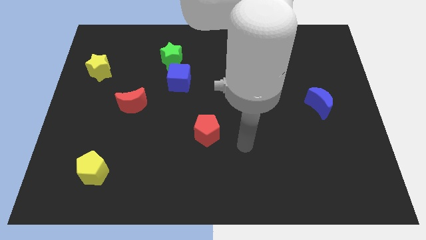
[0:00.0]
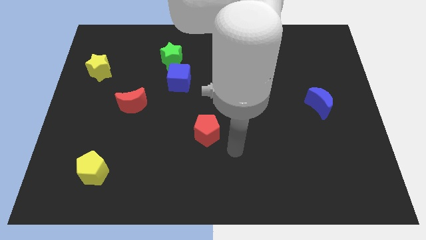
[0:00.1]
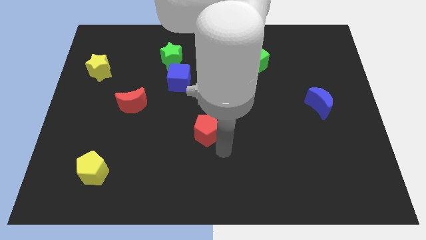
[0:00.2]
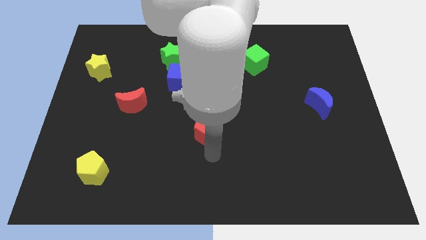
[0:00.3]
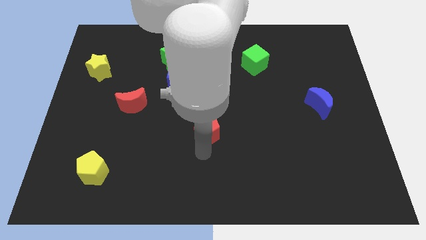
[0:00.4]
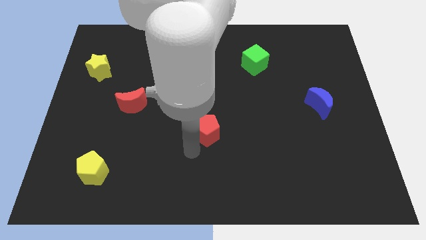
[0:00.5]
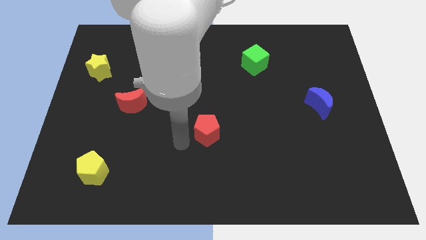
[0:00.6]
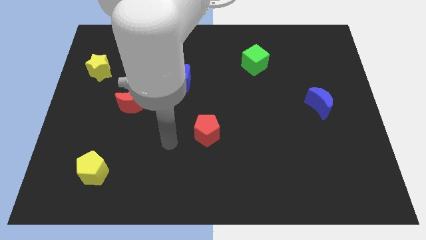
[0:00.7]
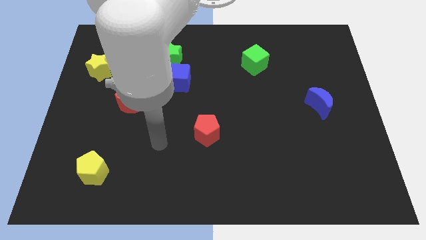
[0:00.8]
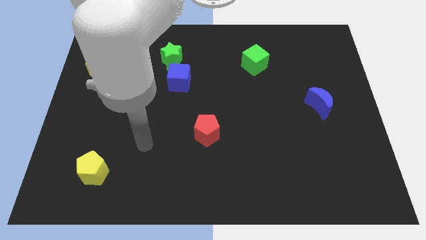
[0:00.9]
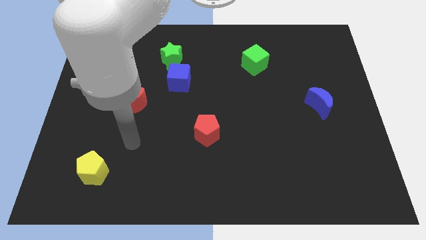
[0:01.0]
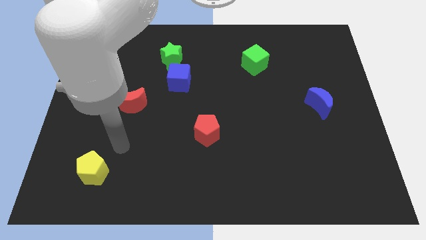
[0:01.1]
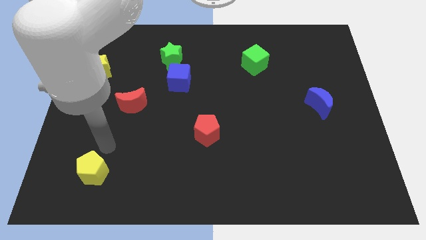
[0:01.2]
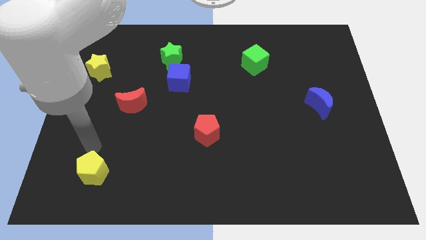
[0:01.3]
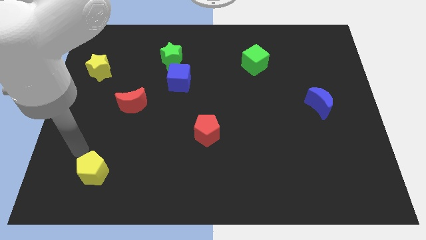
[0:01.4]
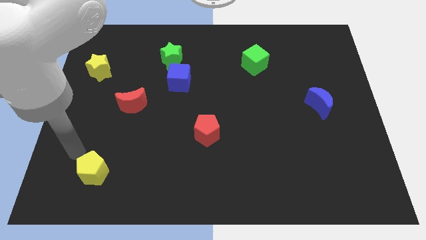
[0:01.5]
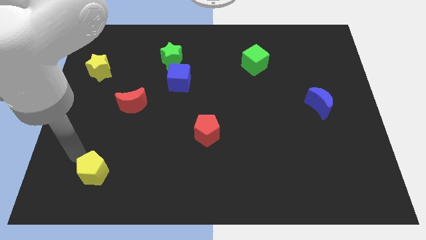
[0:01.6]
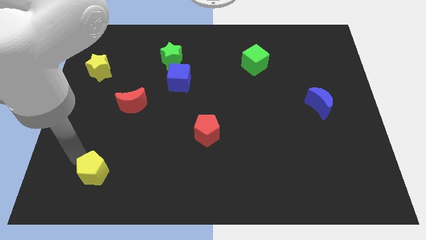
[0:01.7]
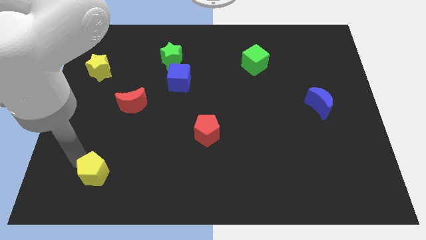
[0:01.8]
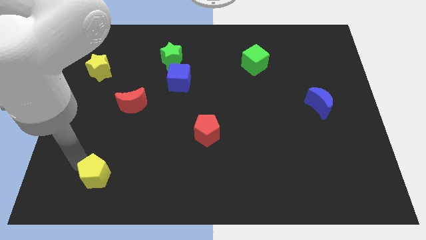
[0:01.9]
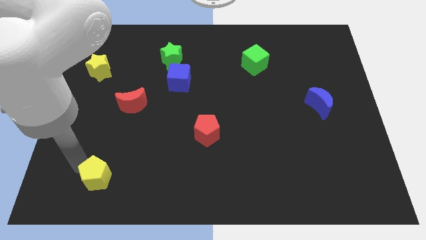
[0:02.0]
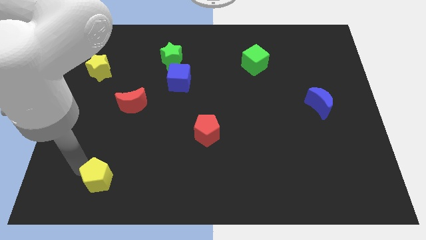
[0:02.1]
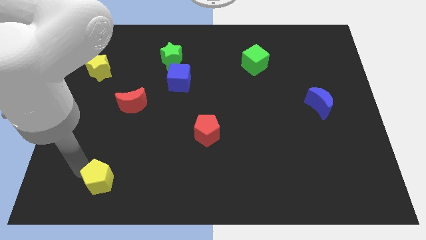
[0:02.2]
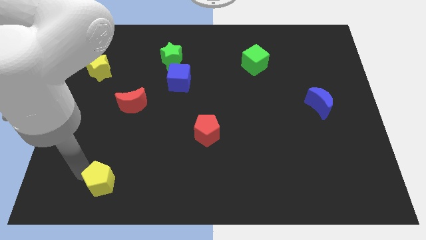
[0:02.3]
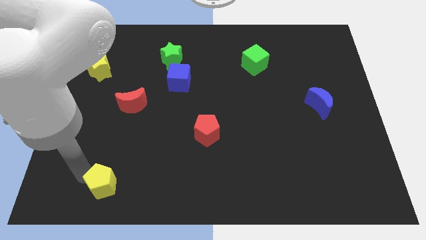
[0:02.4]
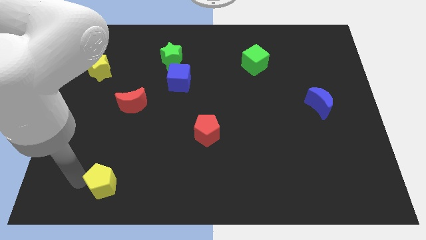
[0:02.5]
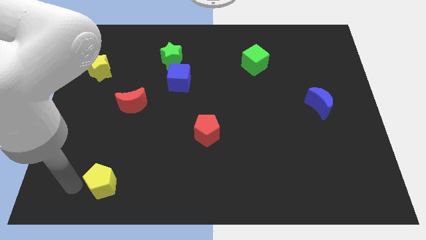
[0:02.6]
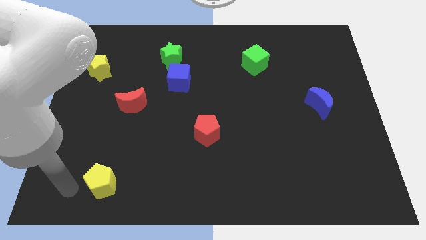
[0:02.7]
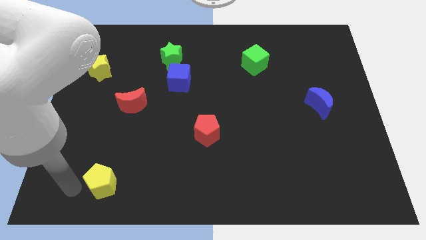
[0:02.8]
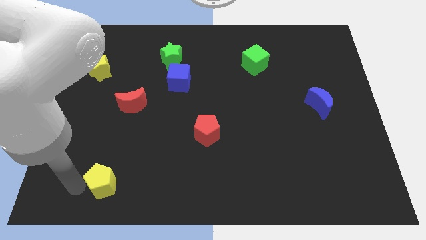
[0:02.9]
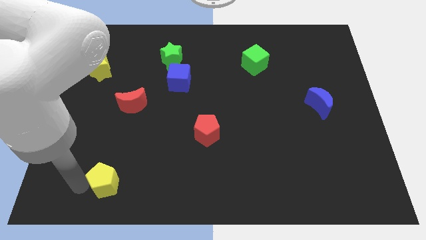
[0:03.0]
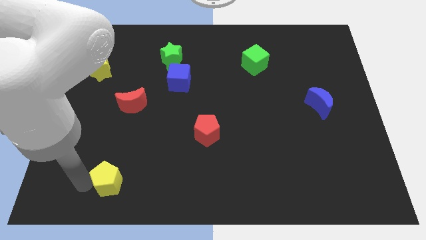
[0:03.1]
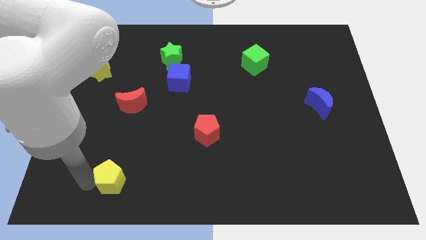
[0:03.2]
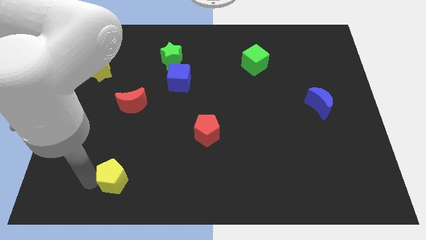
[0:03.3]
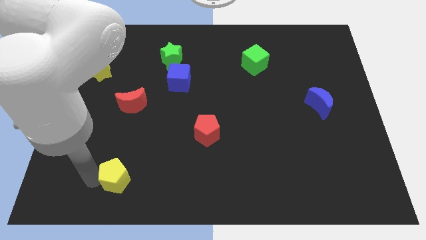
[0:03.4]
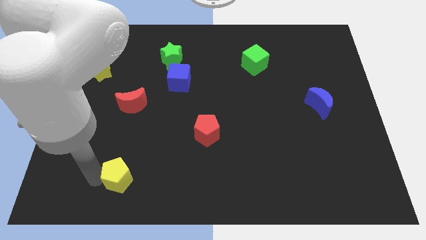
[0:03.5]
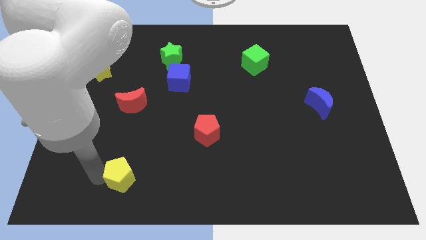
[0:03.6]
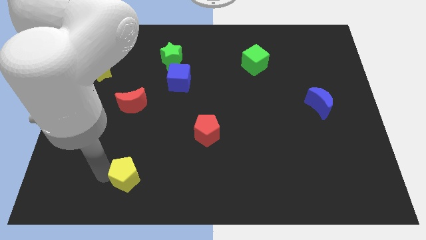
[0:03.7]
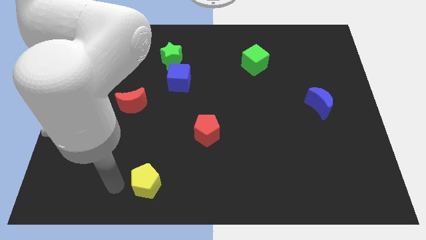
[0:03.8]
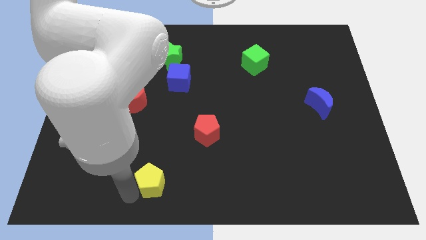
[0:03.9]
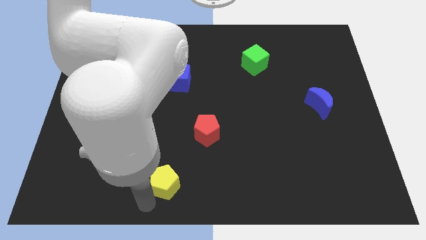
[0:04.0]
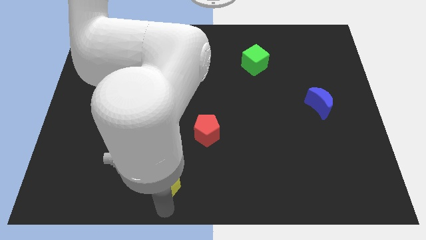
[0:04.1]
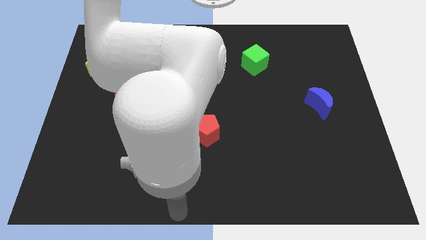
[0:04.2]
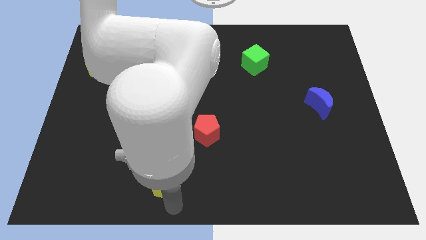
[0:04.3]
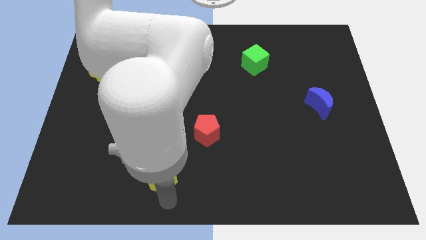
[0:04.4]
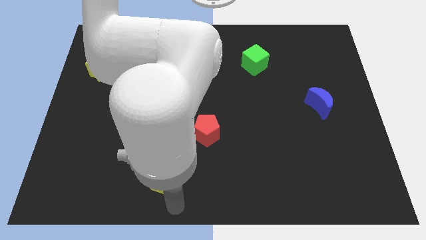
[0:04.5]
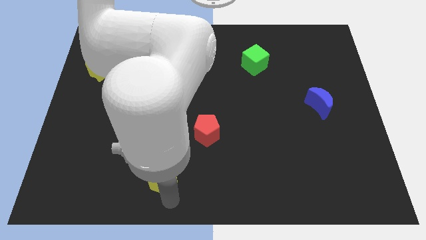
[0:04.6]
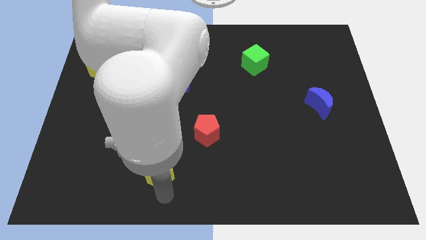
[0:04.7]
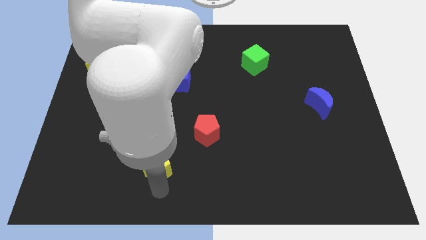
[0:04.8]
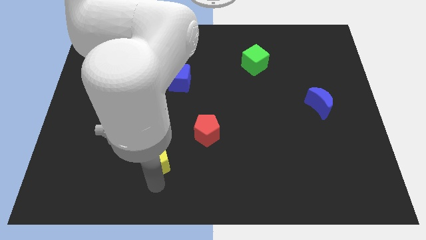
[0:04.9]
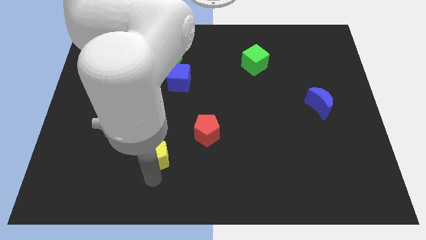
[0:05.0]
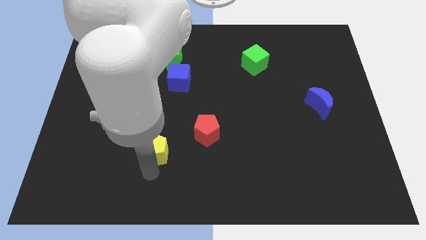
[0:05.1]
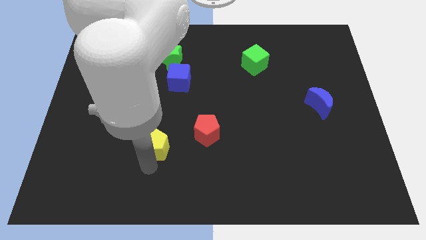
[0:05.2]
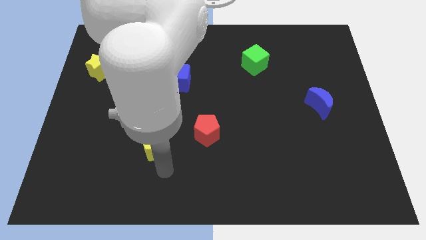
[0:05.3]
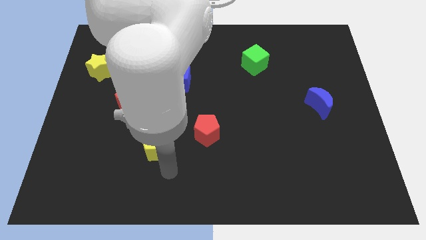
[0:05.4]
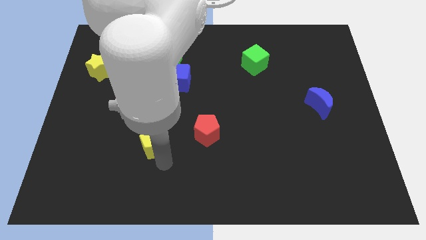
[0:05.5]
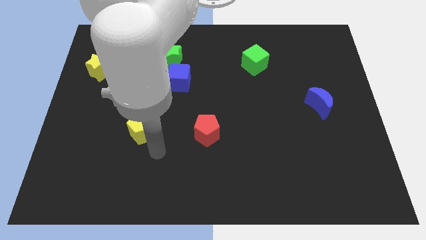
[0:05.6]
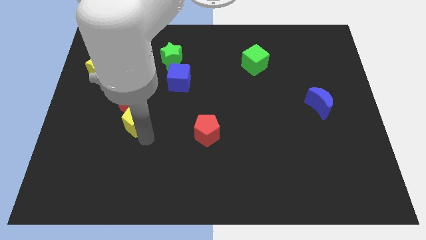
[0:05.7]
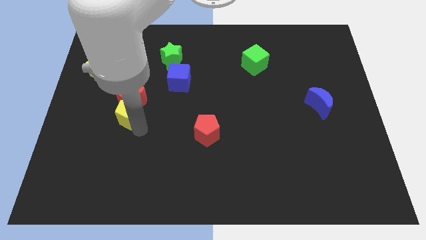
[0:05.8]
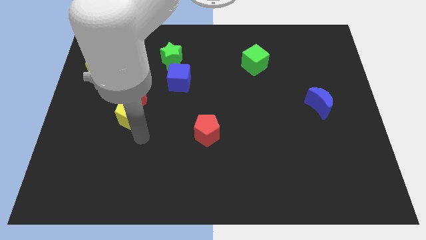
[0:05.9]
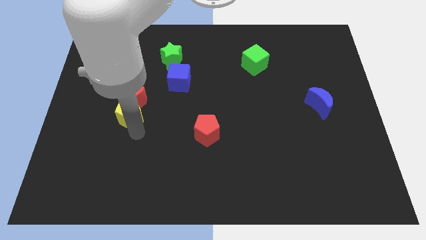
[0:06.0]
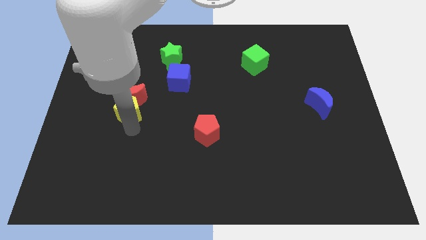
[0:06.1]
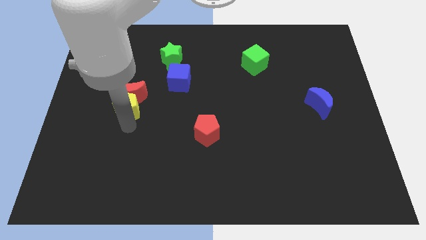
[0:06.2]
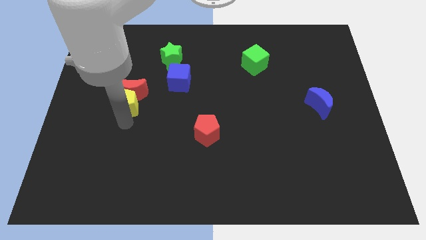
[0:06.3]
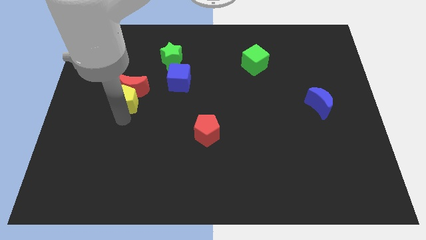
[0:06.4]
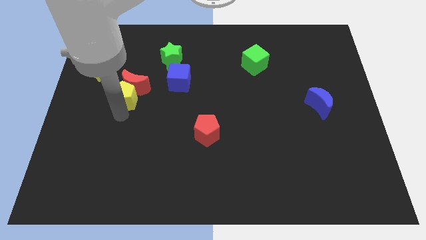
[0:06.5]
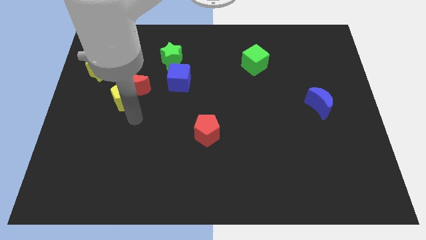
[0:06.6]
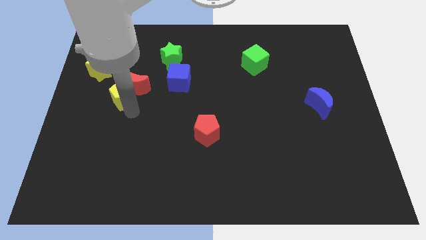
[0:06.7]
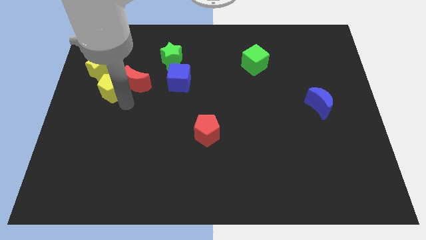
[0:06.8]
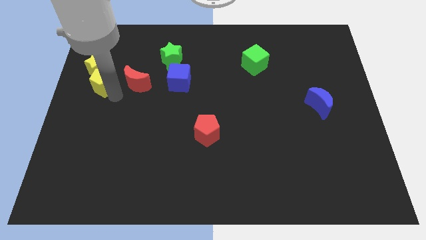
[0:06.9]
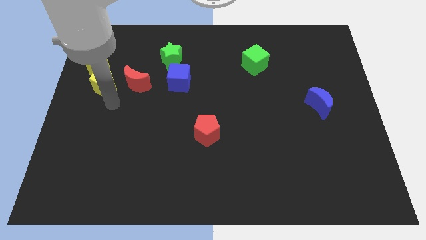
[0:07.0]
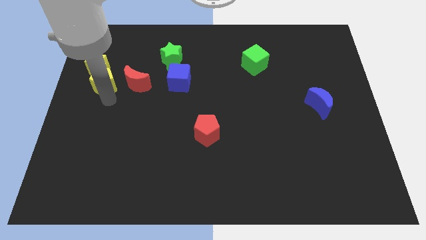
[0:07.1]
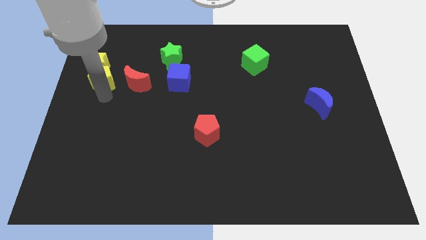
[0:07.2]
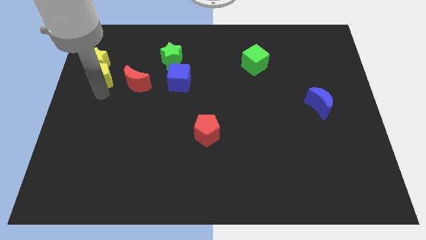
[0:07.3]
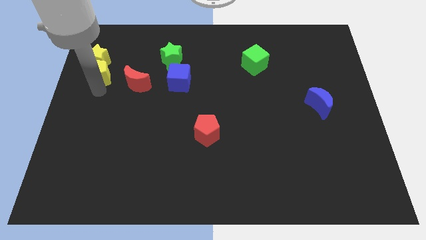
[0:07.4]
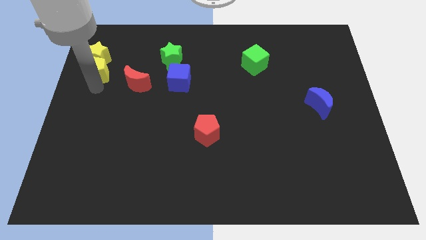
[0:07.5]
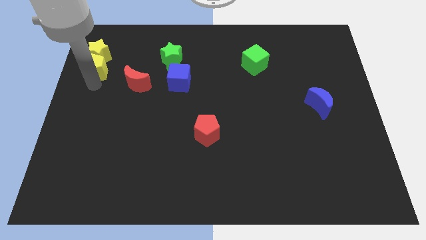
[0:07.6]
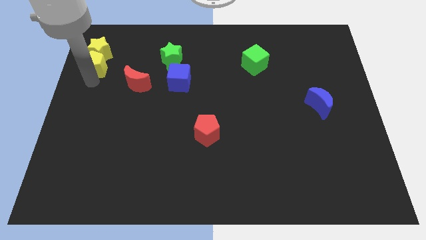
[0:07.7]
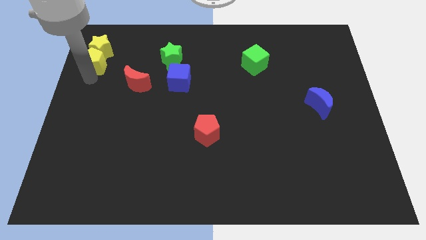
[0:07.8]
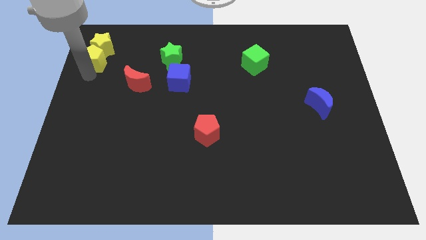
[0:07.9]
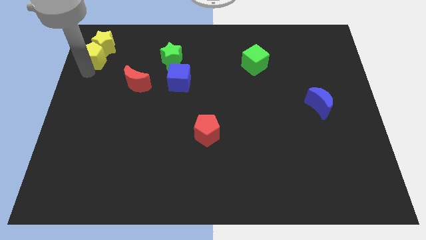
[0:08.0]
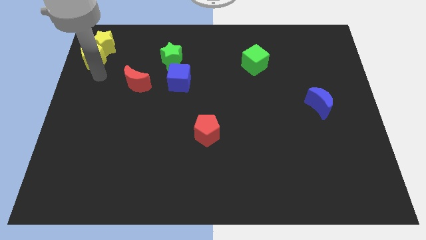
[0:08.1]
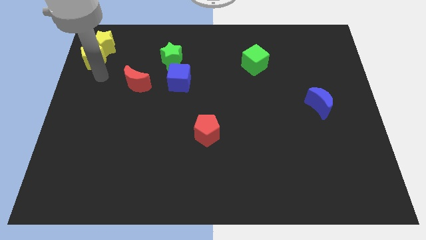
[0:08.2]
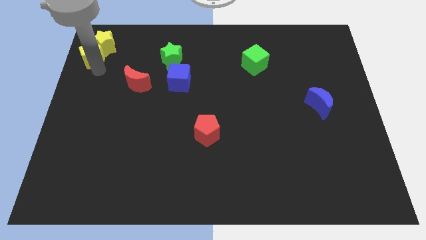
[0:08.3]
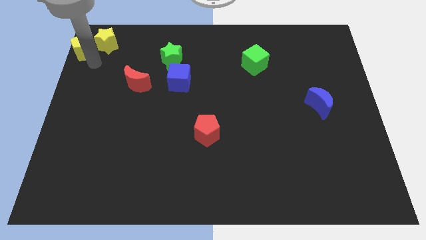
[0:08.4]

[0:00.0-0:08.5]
push the yellow pentagon to the top left corner
